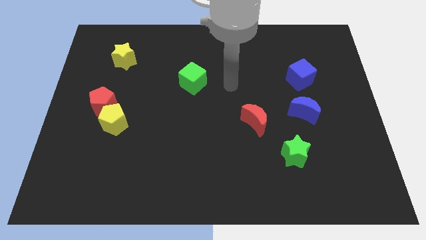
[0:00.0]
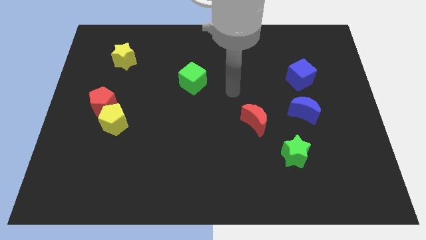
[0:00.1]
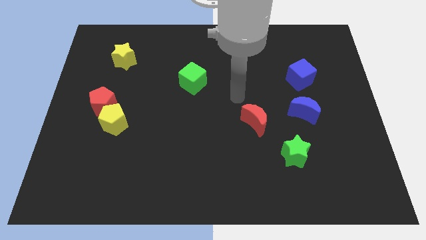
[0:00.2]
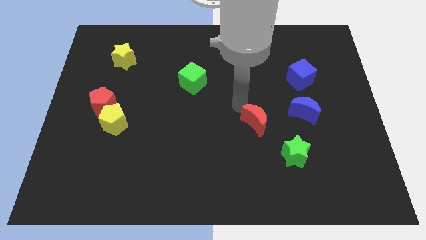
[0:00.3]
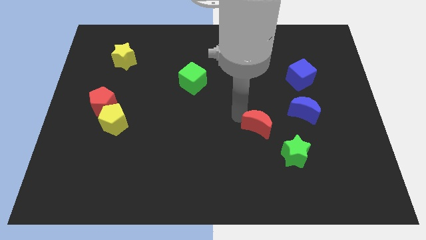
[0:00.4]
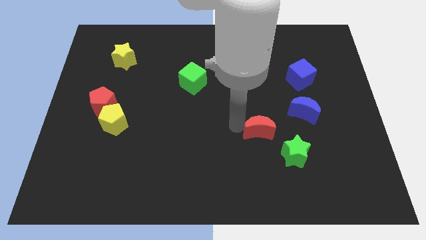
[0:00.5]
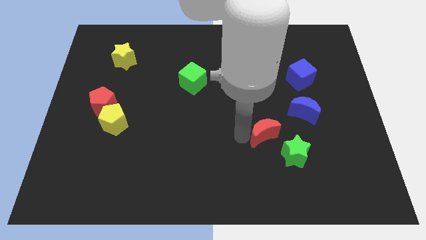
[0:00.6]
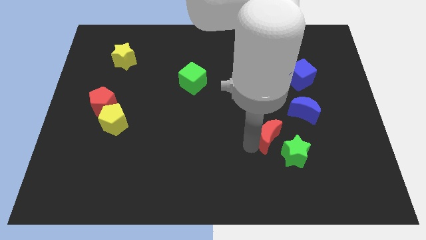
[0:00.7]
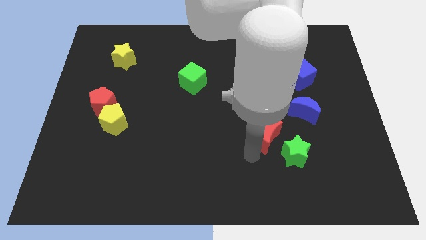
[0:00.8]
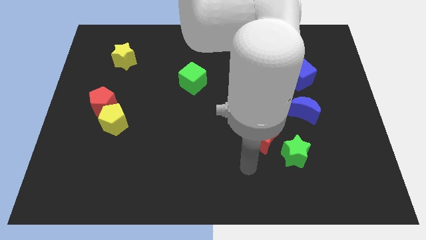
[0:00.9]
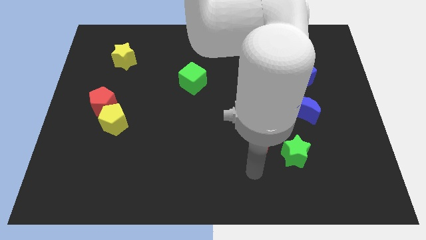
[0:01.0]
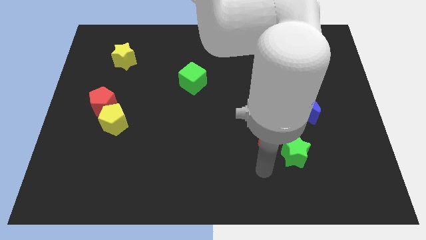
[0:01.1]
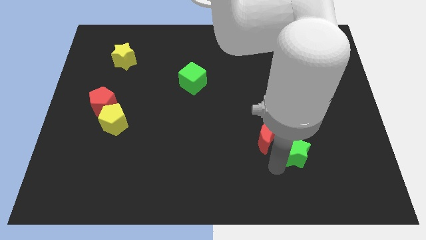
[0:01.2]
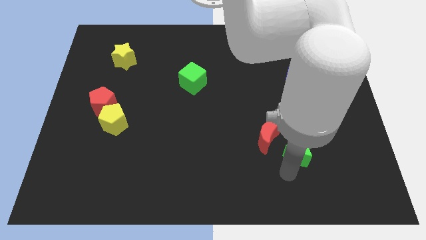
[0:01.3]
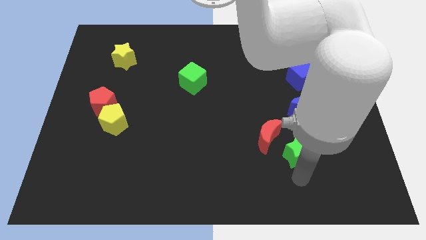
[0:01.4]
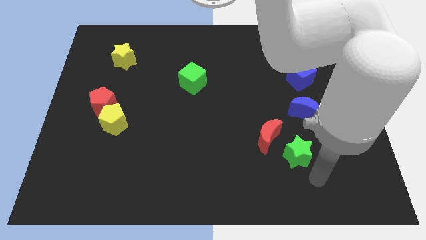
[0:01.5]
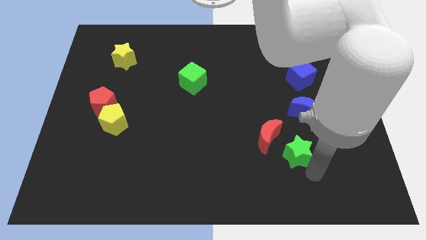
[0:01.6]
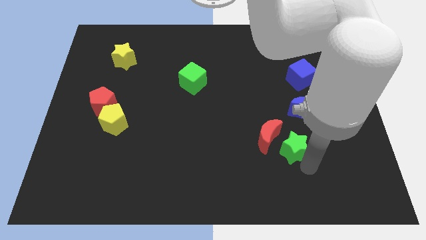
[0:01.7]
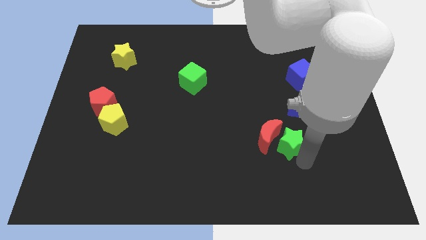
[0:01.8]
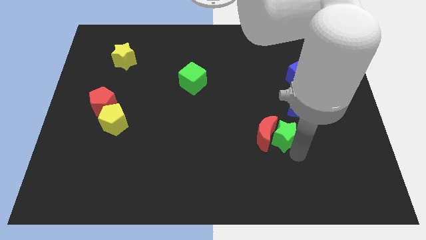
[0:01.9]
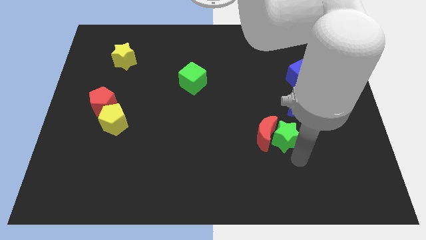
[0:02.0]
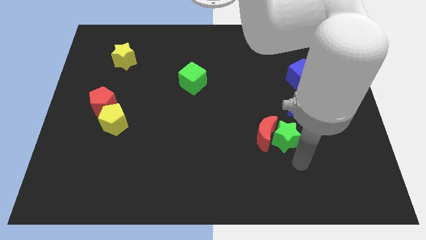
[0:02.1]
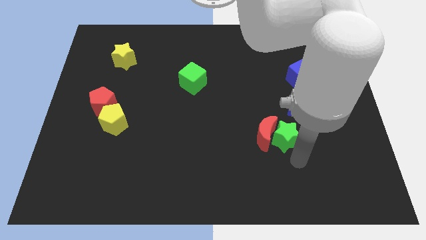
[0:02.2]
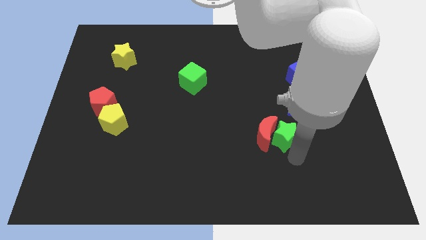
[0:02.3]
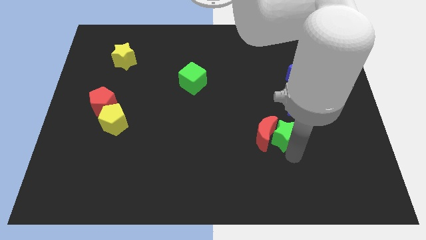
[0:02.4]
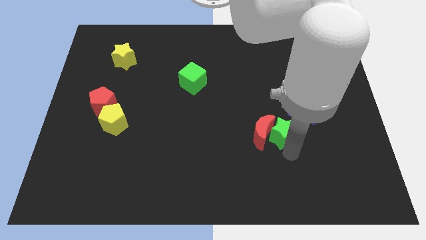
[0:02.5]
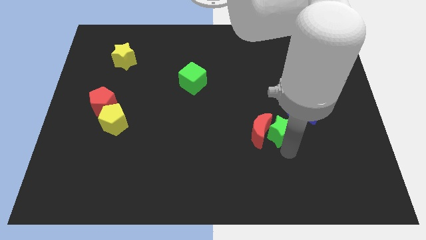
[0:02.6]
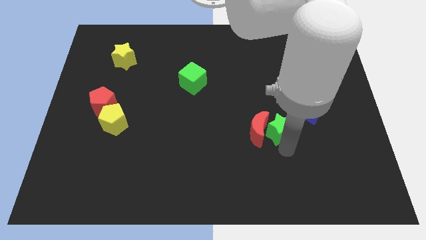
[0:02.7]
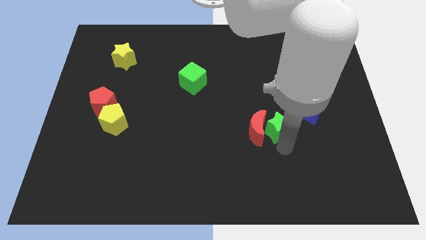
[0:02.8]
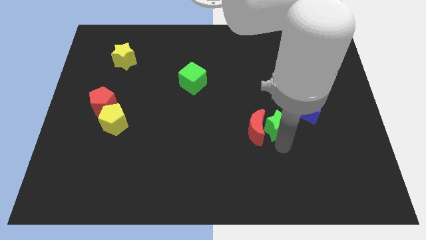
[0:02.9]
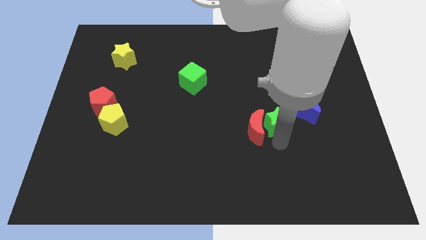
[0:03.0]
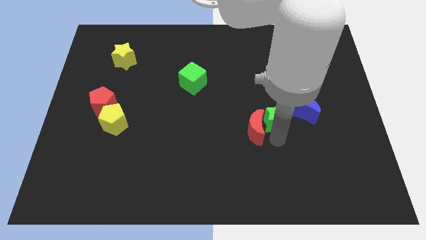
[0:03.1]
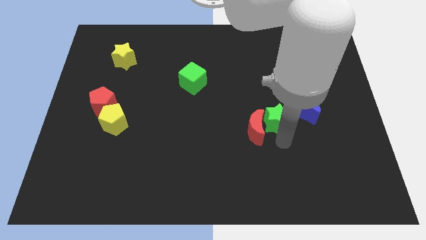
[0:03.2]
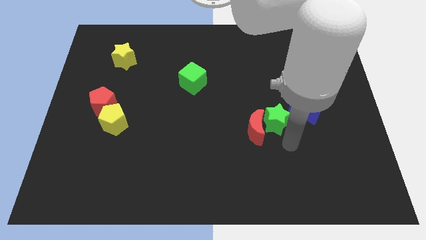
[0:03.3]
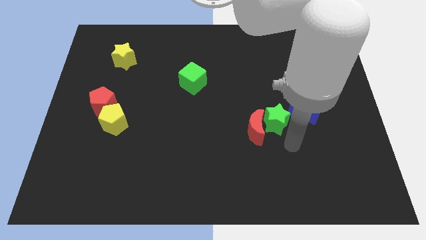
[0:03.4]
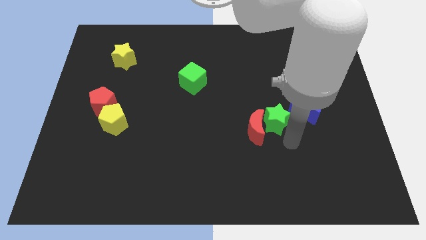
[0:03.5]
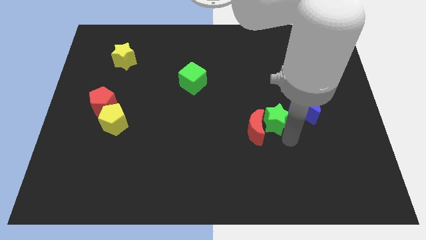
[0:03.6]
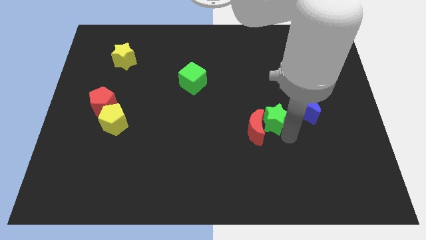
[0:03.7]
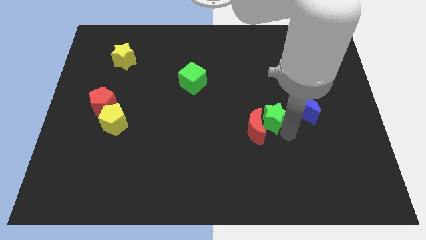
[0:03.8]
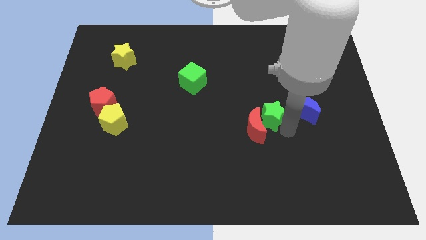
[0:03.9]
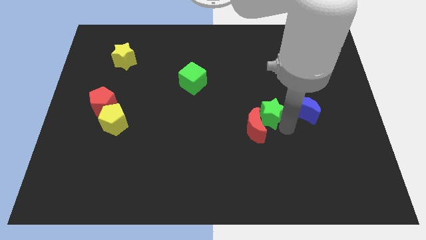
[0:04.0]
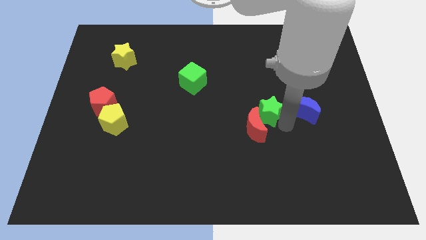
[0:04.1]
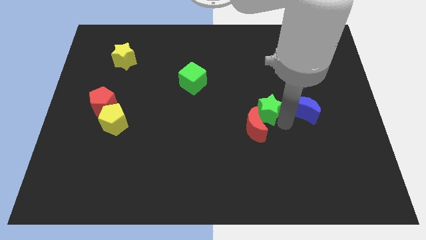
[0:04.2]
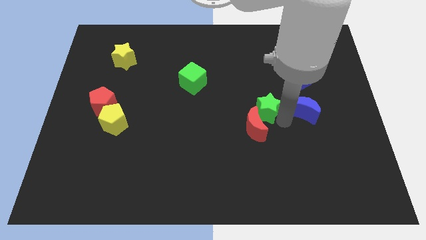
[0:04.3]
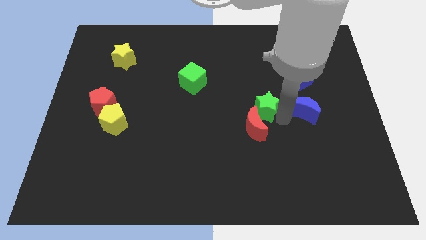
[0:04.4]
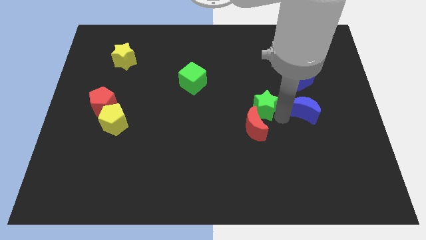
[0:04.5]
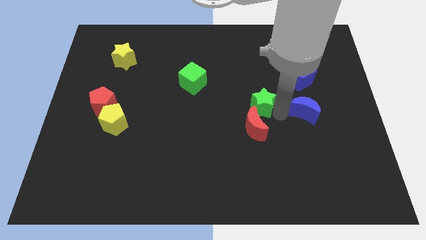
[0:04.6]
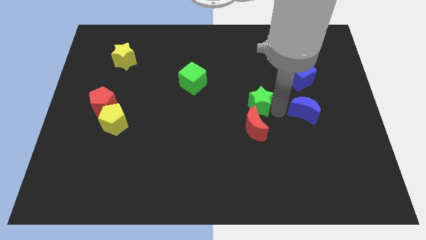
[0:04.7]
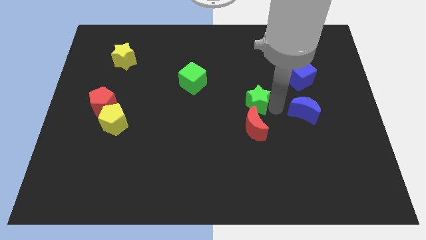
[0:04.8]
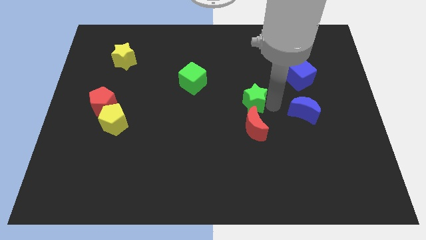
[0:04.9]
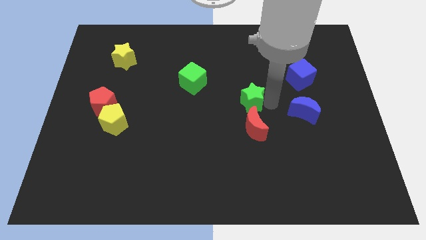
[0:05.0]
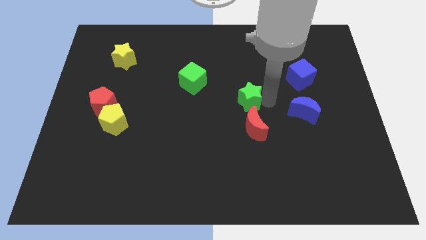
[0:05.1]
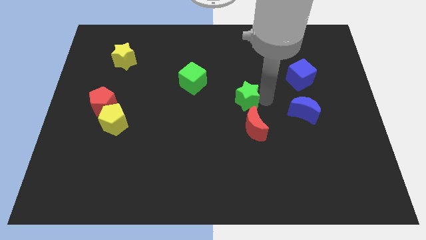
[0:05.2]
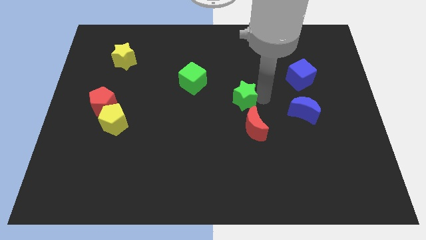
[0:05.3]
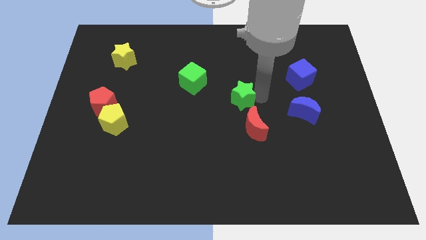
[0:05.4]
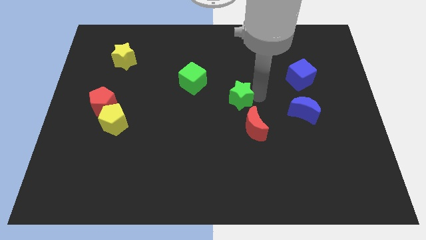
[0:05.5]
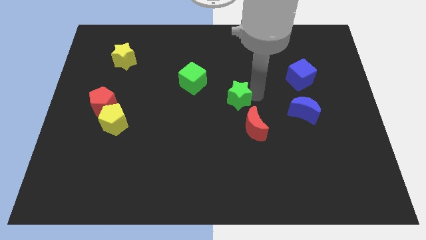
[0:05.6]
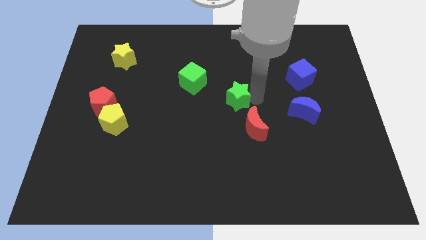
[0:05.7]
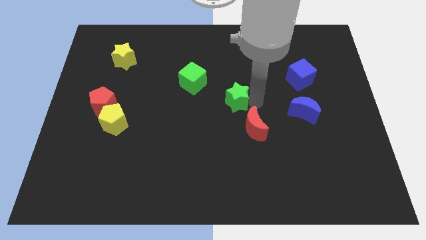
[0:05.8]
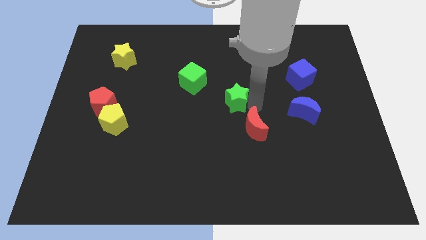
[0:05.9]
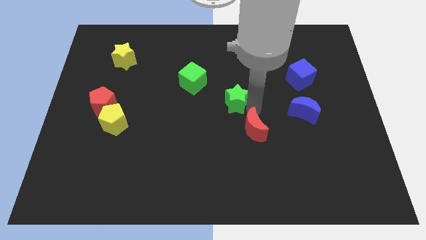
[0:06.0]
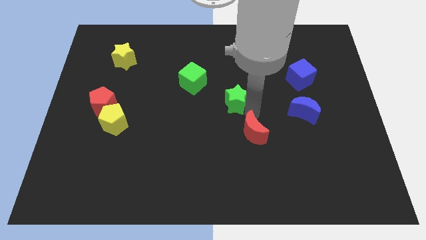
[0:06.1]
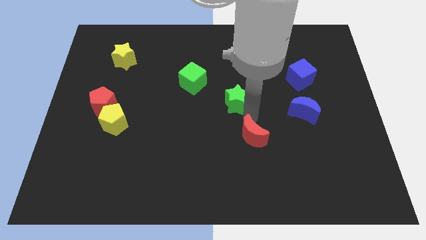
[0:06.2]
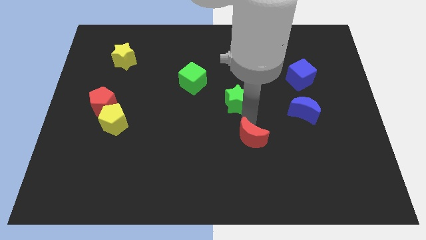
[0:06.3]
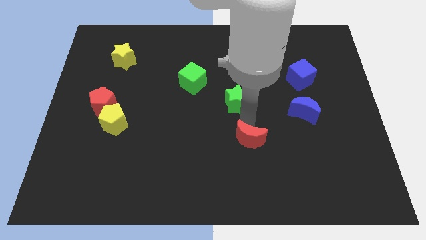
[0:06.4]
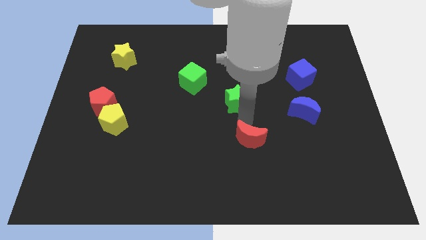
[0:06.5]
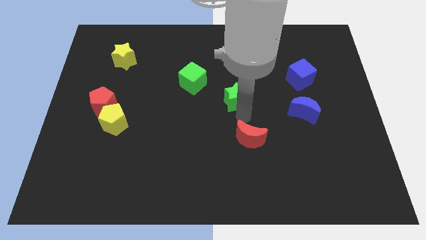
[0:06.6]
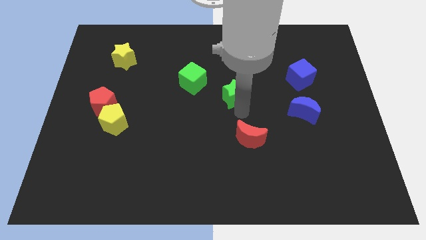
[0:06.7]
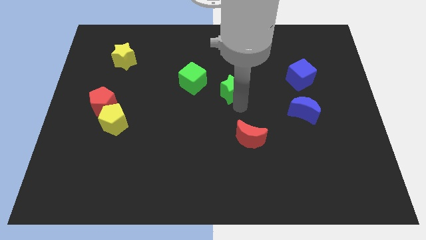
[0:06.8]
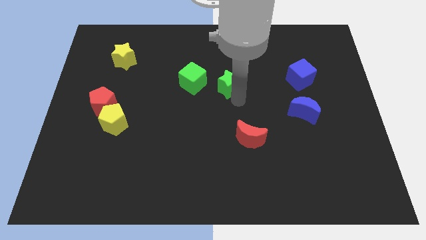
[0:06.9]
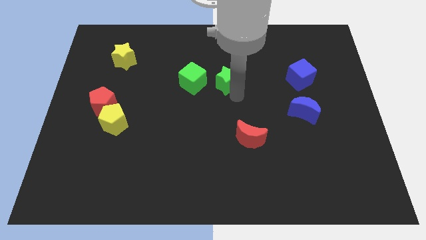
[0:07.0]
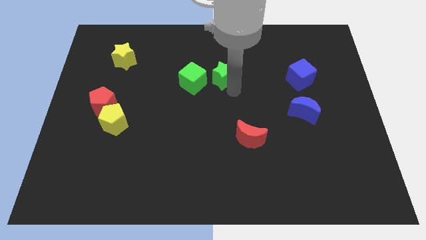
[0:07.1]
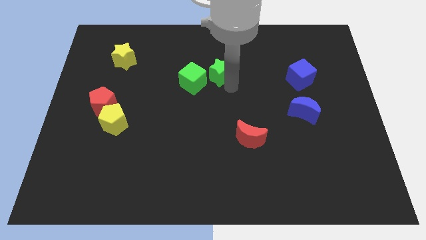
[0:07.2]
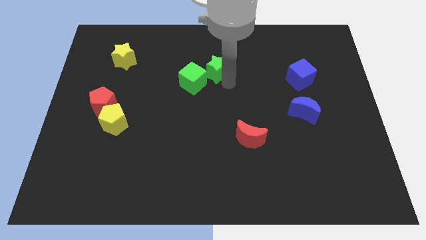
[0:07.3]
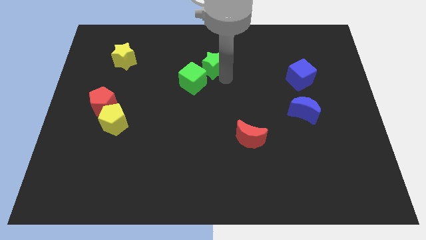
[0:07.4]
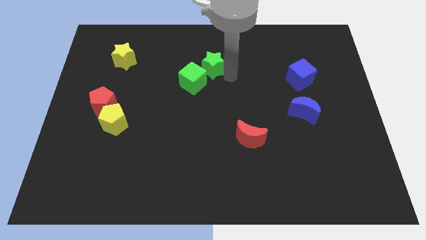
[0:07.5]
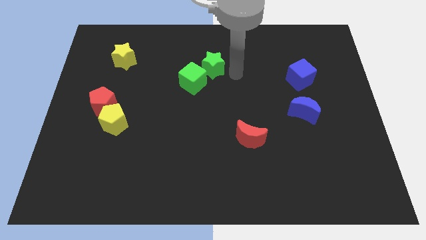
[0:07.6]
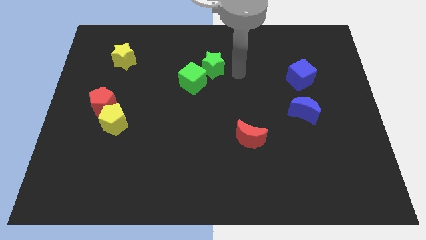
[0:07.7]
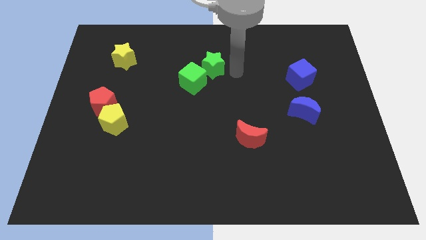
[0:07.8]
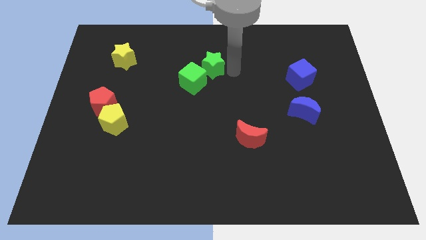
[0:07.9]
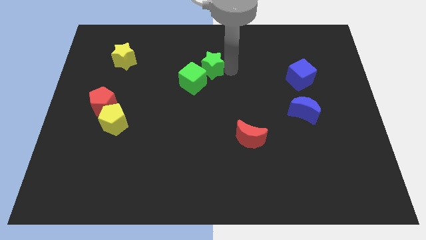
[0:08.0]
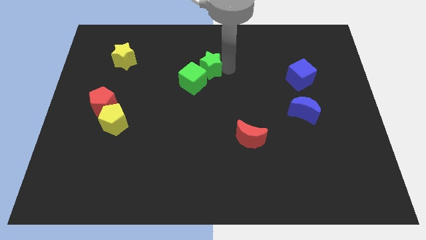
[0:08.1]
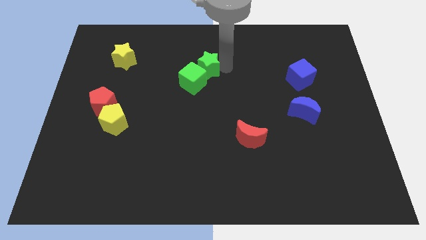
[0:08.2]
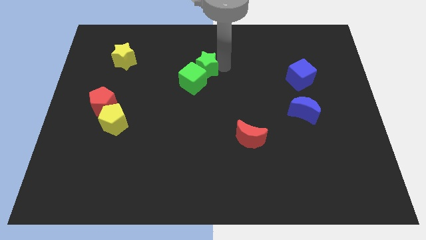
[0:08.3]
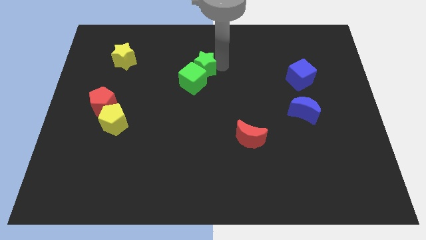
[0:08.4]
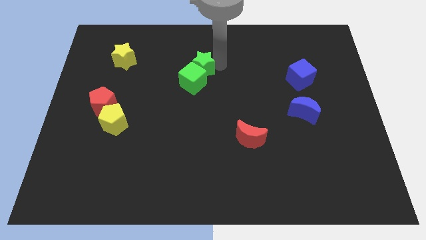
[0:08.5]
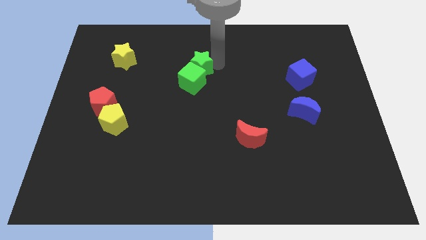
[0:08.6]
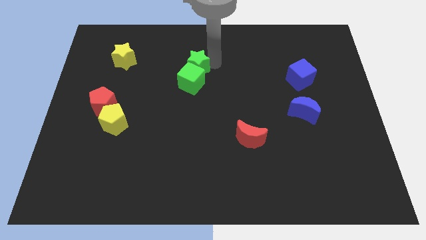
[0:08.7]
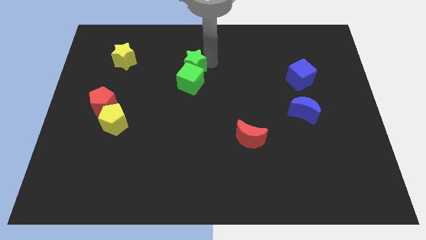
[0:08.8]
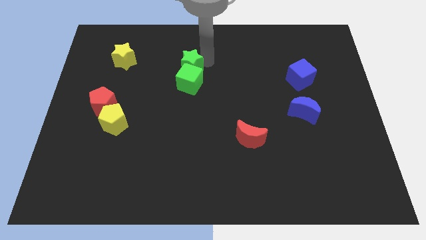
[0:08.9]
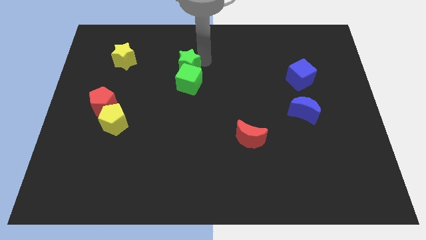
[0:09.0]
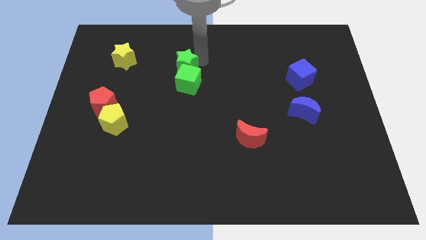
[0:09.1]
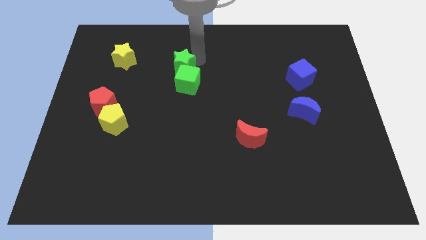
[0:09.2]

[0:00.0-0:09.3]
put the green star right of the yellow star
